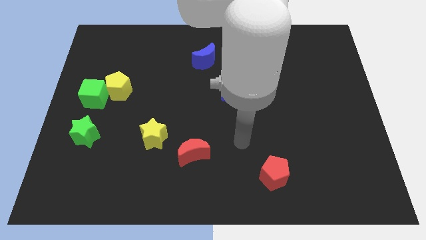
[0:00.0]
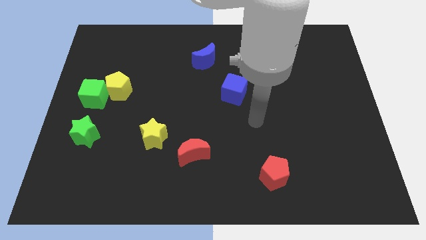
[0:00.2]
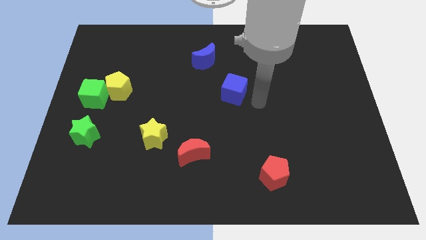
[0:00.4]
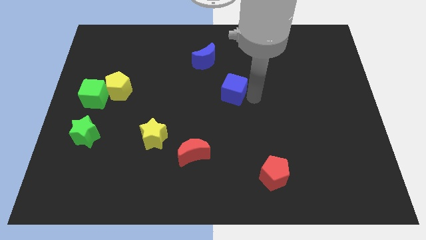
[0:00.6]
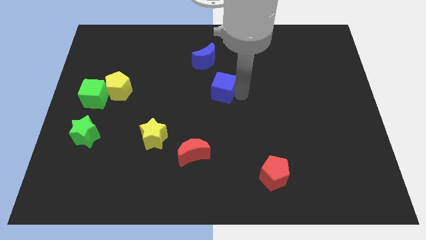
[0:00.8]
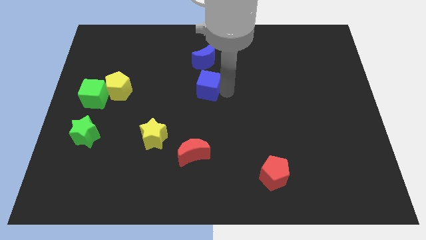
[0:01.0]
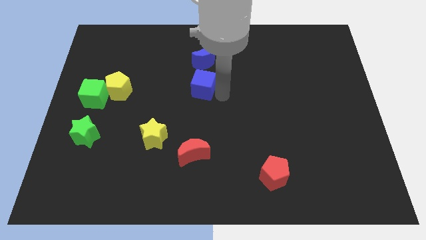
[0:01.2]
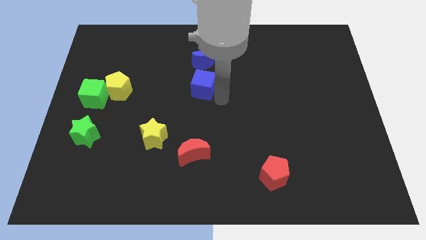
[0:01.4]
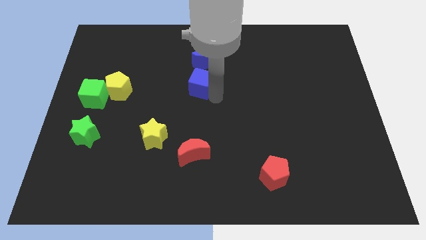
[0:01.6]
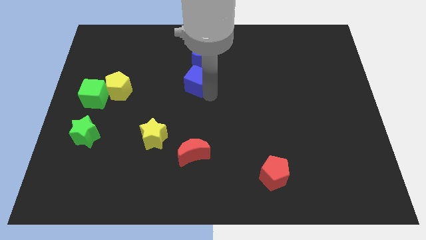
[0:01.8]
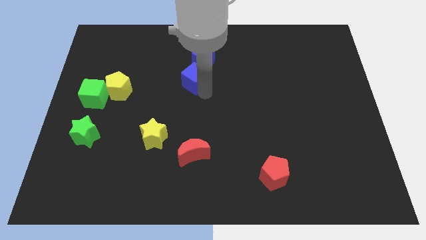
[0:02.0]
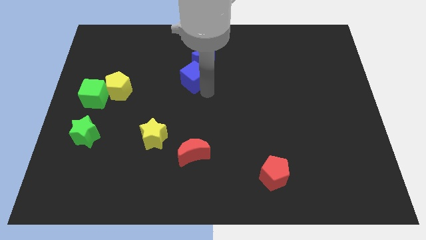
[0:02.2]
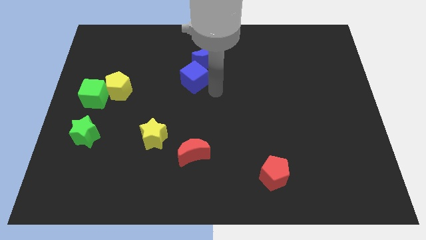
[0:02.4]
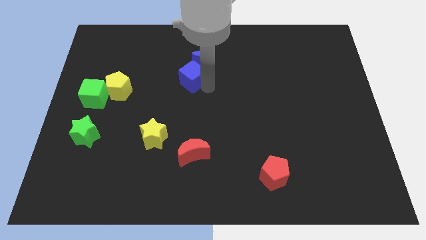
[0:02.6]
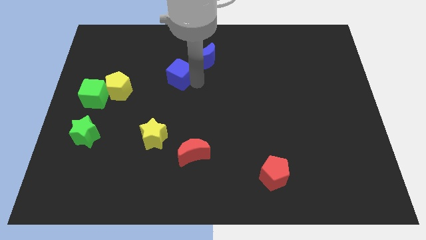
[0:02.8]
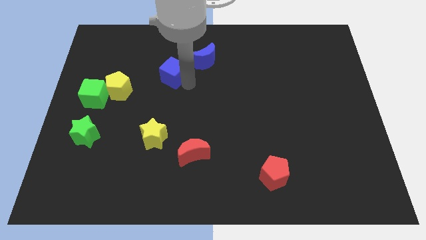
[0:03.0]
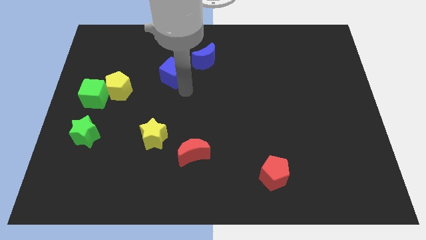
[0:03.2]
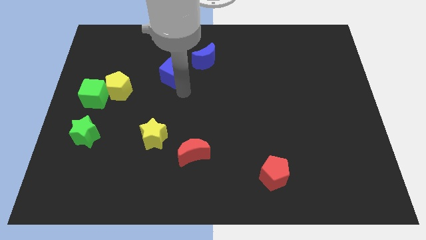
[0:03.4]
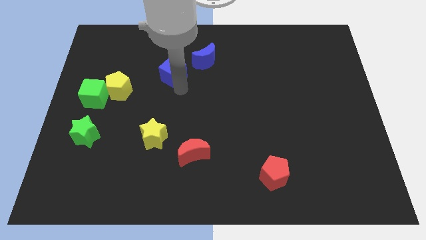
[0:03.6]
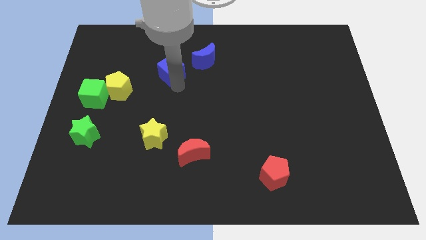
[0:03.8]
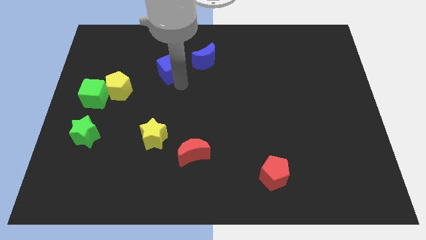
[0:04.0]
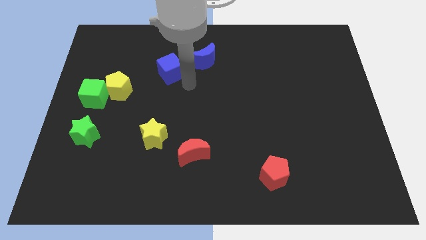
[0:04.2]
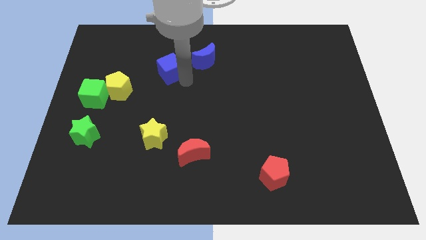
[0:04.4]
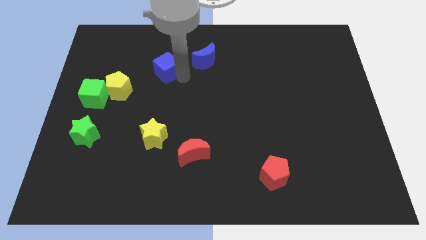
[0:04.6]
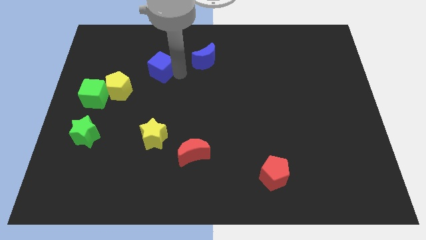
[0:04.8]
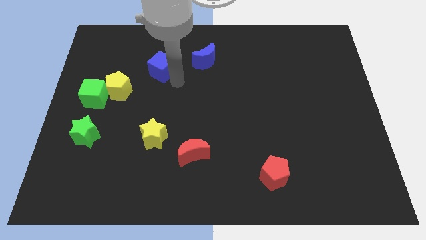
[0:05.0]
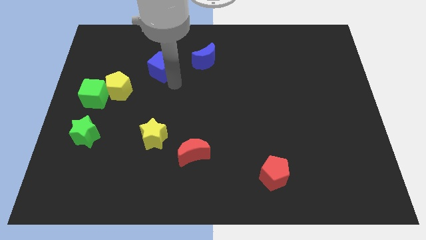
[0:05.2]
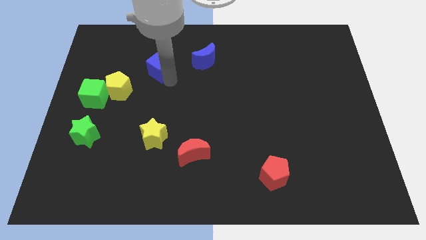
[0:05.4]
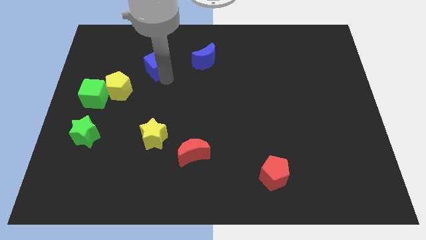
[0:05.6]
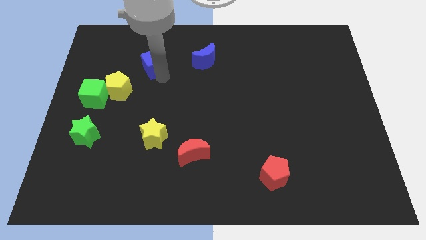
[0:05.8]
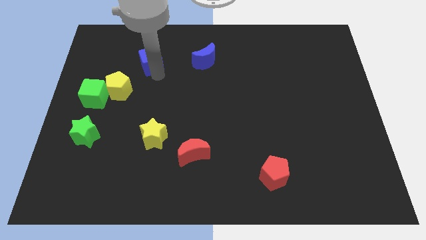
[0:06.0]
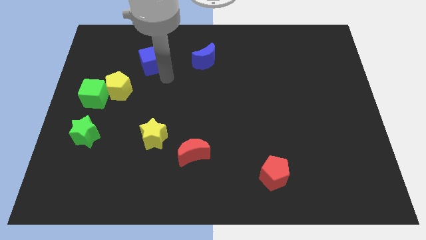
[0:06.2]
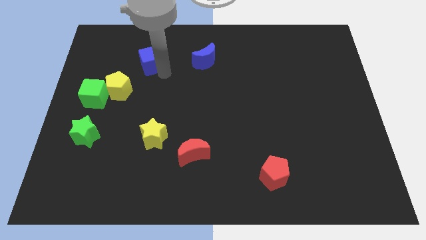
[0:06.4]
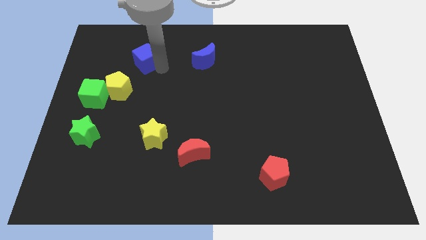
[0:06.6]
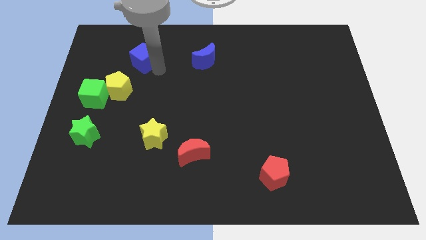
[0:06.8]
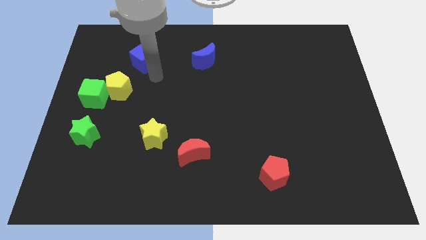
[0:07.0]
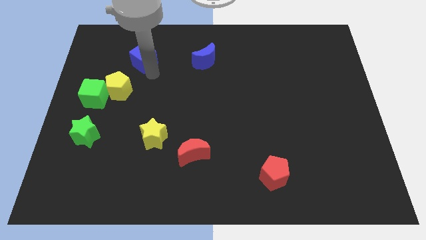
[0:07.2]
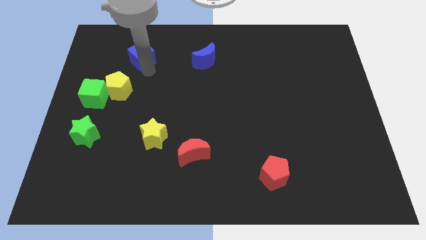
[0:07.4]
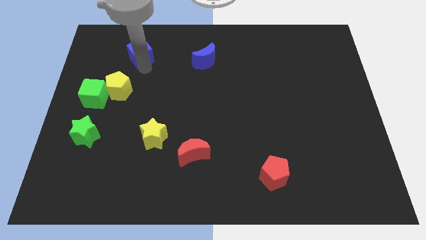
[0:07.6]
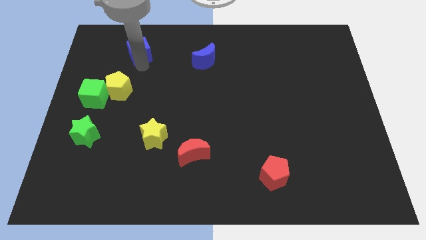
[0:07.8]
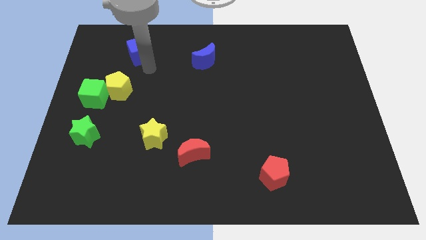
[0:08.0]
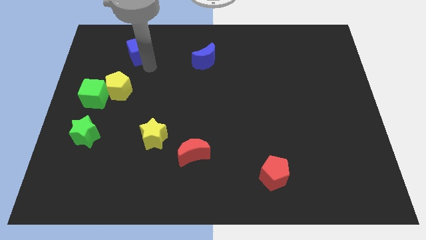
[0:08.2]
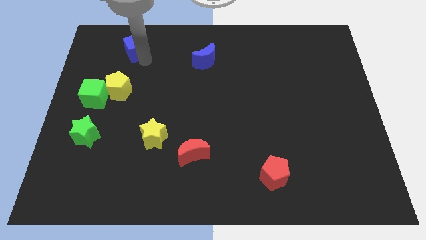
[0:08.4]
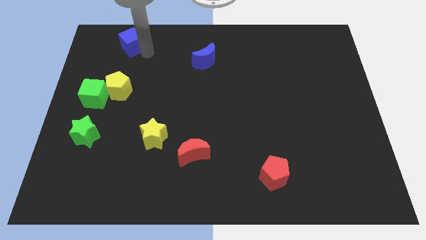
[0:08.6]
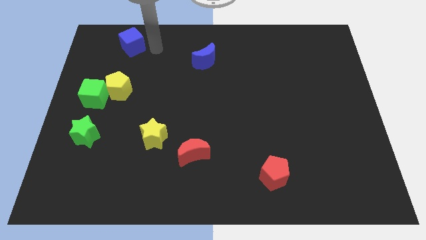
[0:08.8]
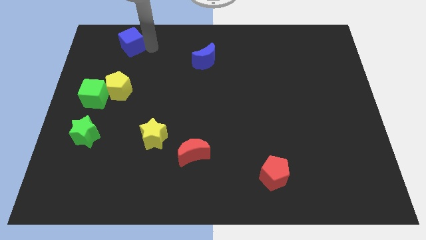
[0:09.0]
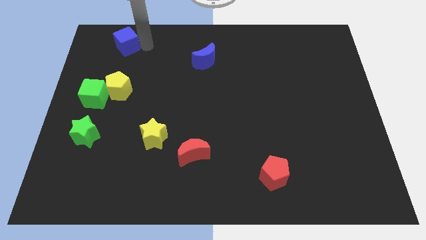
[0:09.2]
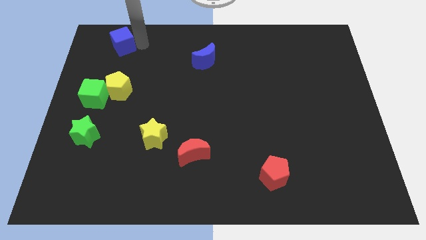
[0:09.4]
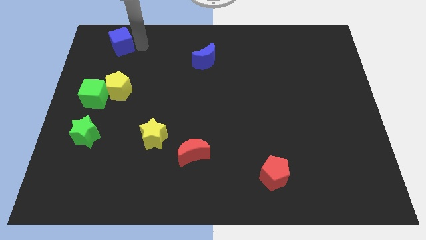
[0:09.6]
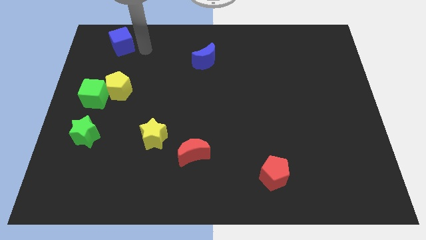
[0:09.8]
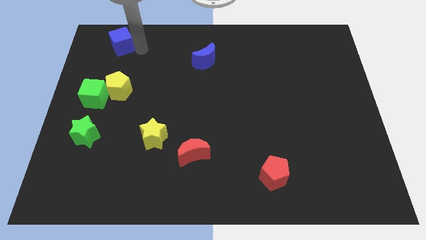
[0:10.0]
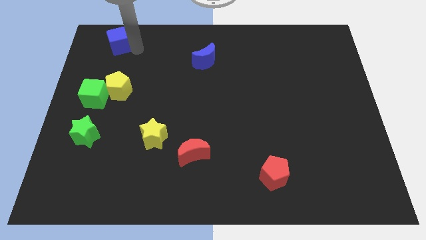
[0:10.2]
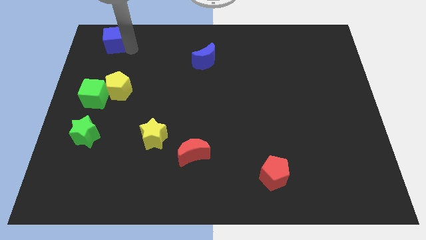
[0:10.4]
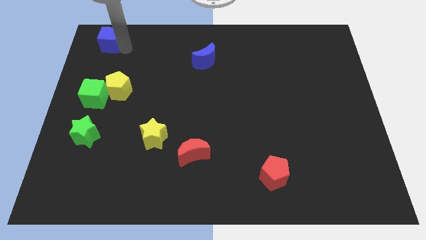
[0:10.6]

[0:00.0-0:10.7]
slide the blue cube to the top left corner
